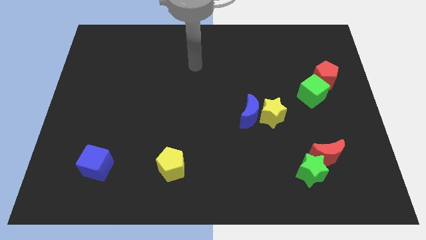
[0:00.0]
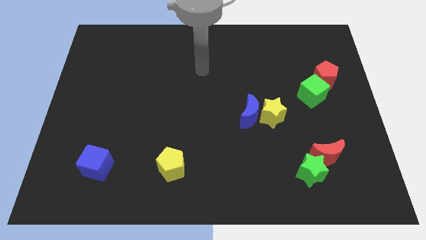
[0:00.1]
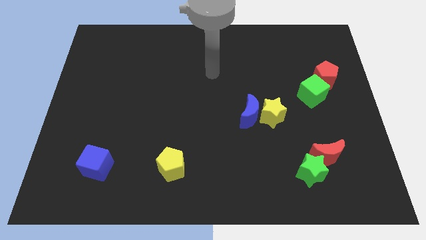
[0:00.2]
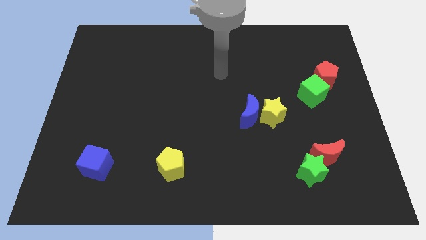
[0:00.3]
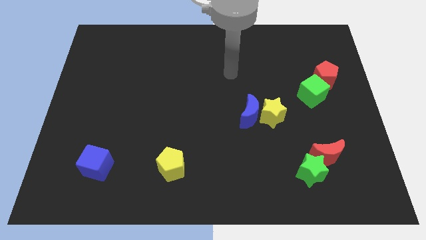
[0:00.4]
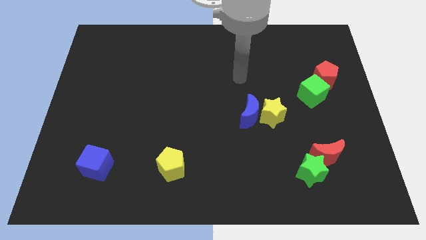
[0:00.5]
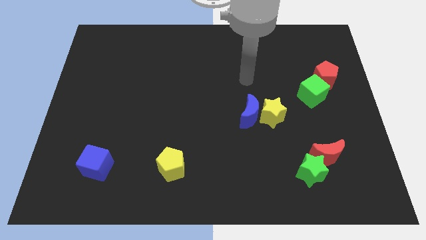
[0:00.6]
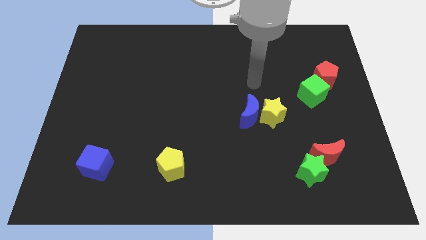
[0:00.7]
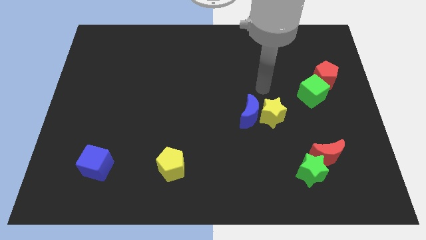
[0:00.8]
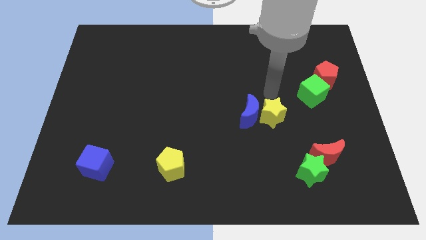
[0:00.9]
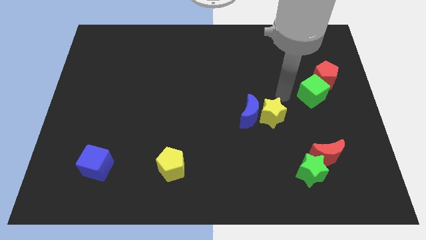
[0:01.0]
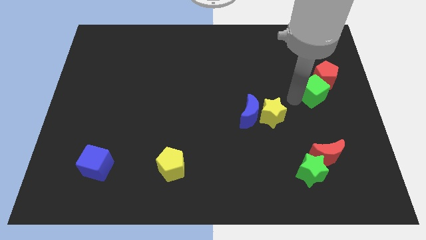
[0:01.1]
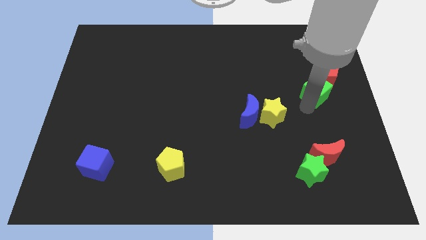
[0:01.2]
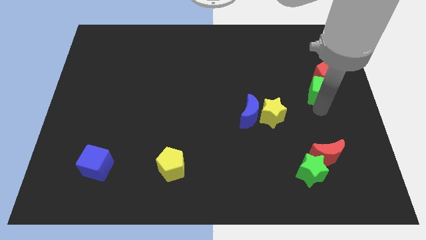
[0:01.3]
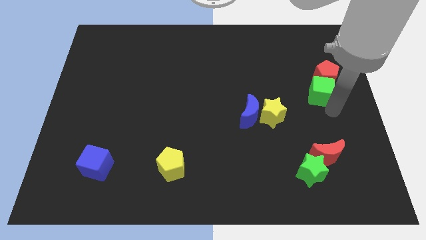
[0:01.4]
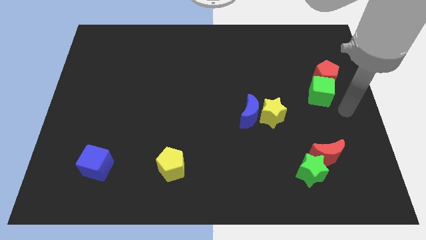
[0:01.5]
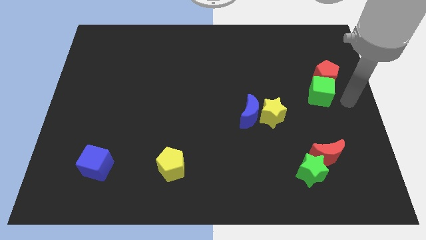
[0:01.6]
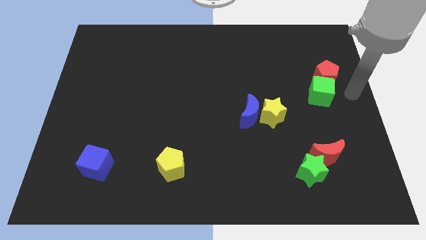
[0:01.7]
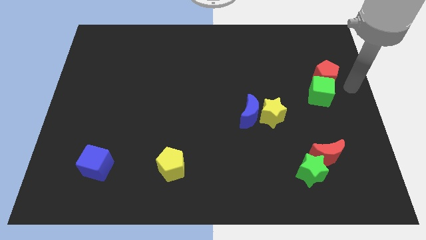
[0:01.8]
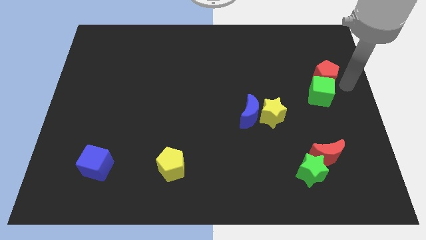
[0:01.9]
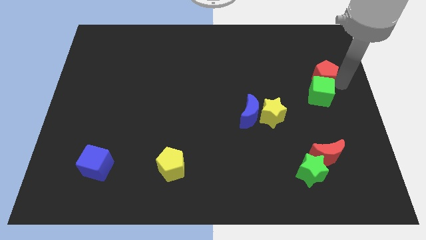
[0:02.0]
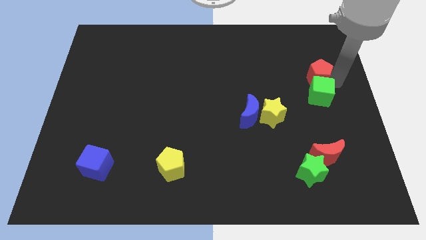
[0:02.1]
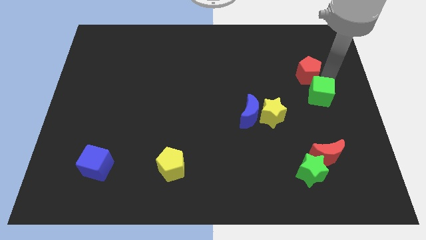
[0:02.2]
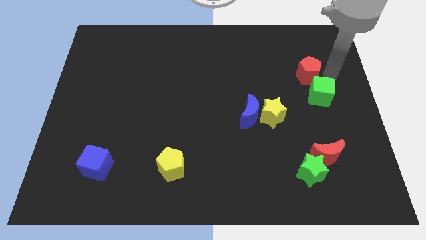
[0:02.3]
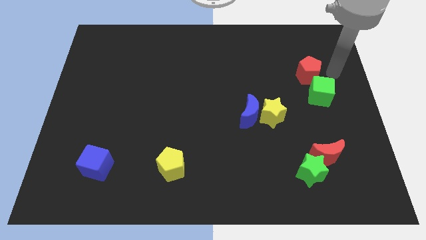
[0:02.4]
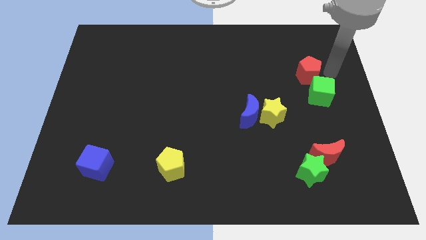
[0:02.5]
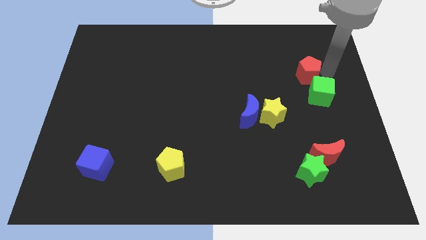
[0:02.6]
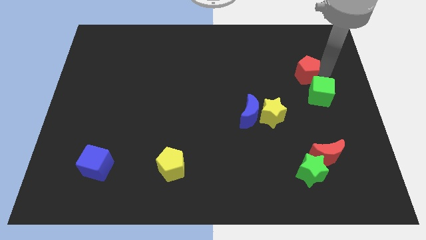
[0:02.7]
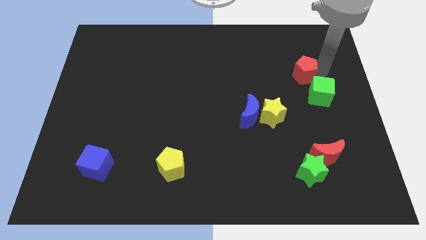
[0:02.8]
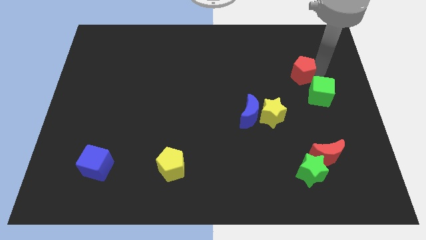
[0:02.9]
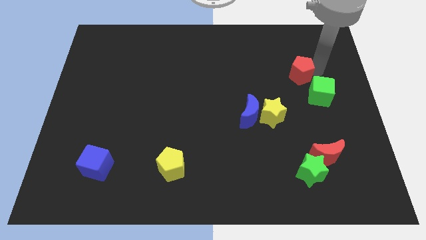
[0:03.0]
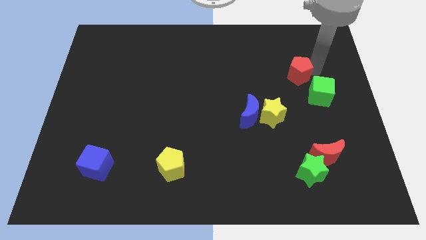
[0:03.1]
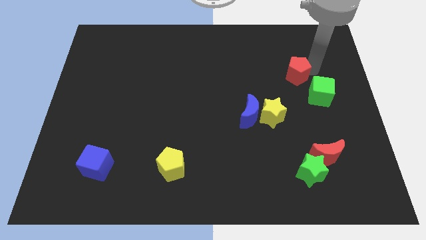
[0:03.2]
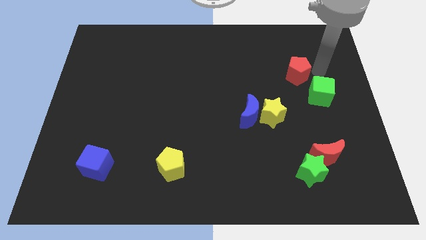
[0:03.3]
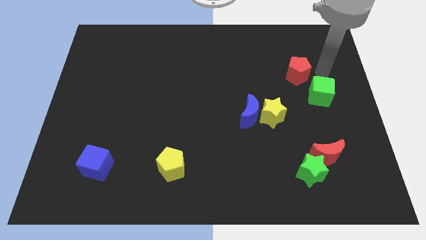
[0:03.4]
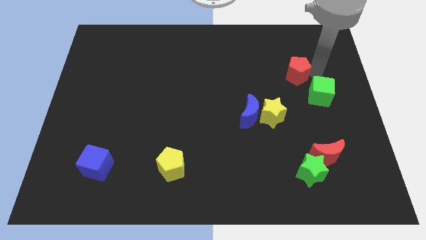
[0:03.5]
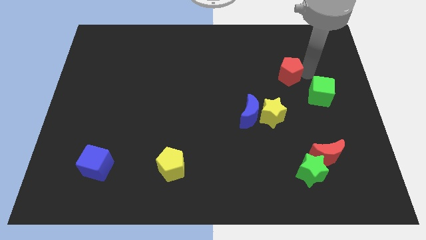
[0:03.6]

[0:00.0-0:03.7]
slightly slide the red pentagon to the left

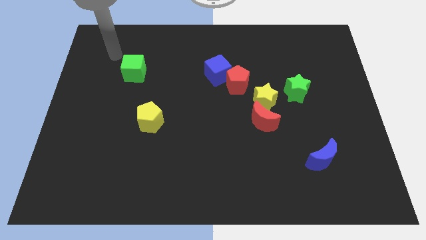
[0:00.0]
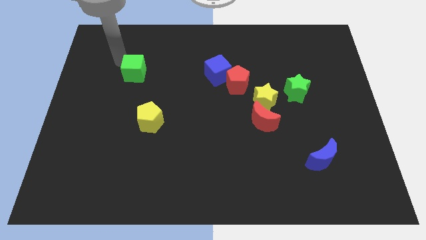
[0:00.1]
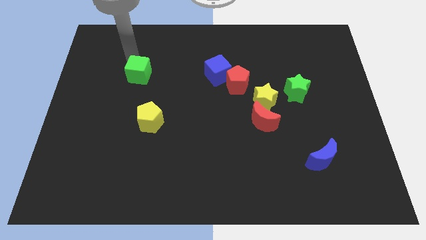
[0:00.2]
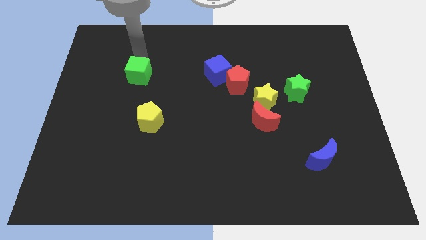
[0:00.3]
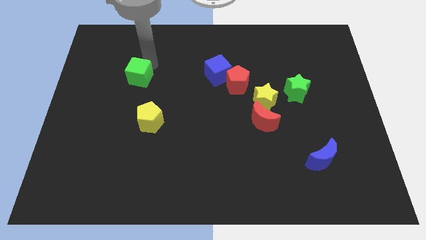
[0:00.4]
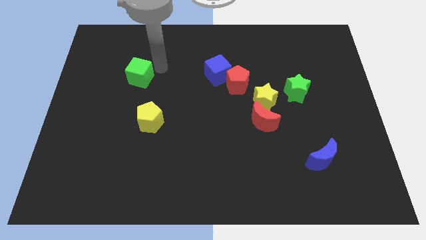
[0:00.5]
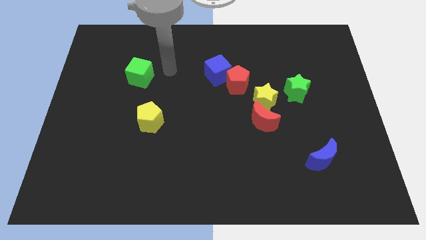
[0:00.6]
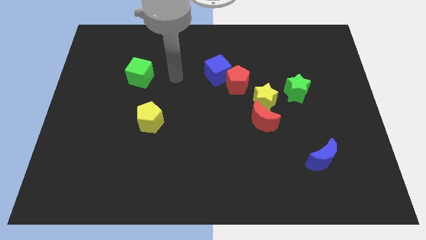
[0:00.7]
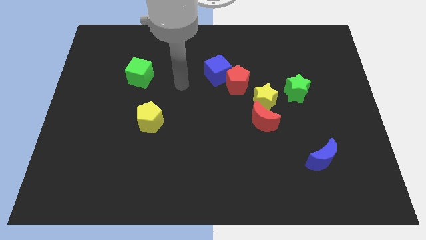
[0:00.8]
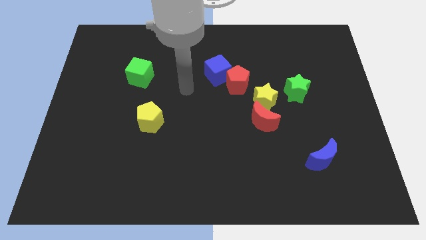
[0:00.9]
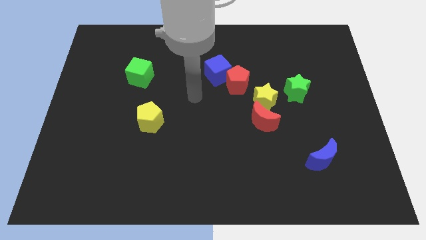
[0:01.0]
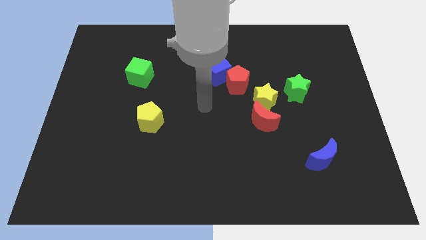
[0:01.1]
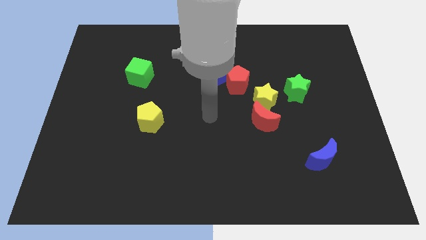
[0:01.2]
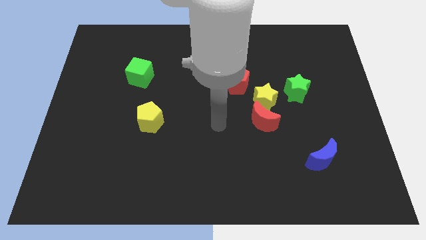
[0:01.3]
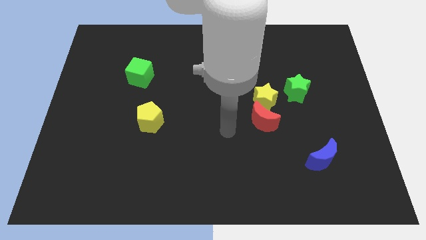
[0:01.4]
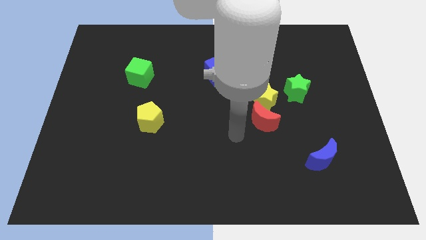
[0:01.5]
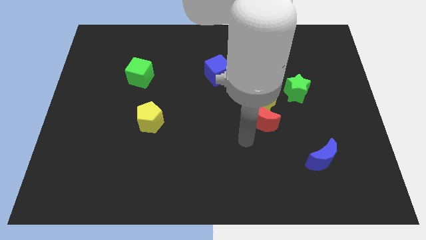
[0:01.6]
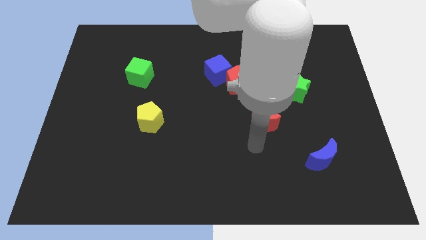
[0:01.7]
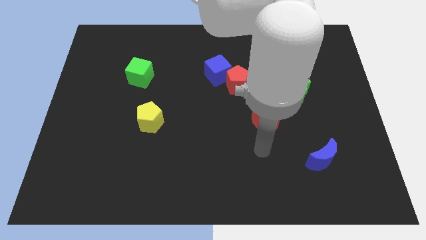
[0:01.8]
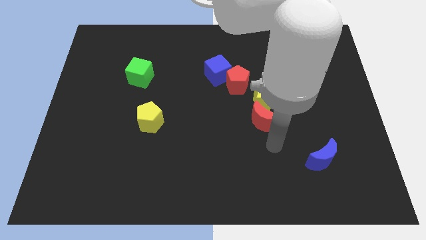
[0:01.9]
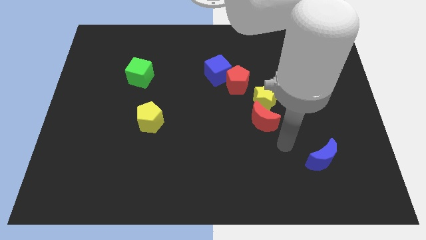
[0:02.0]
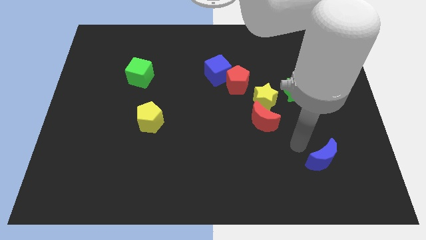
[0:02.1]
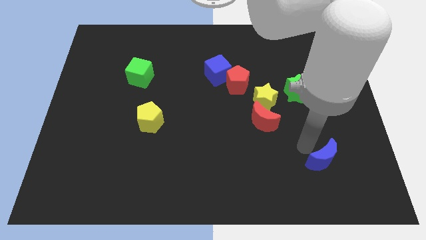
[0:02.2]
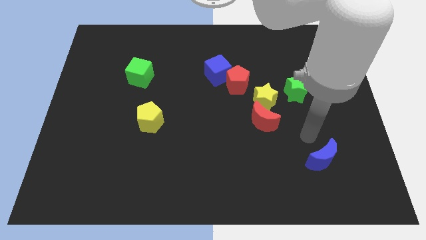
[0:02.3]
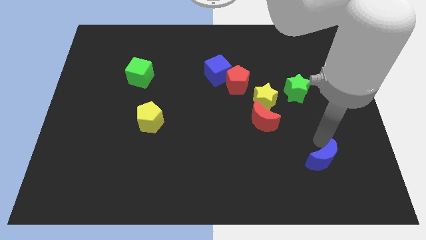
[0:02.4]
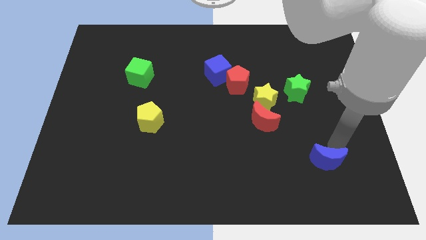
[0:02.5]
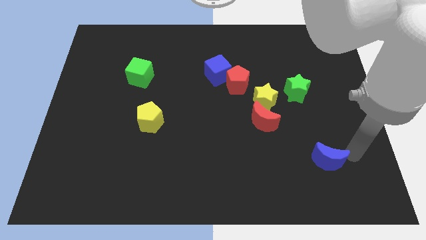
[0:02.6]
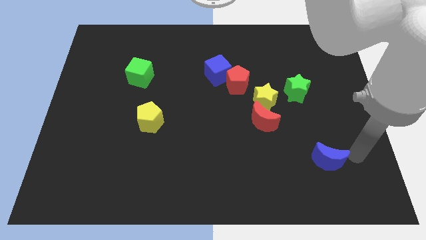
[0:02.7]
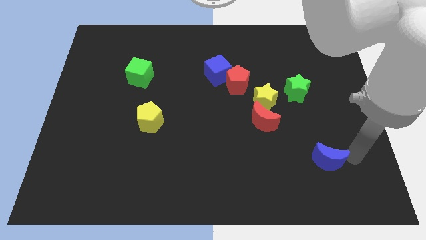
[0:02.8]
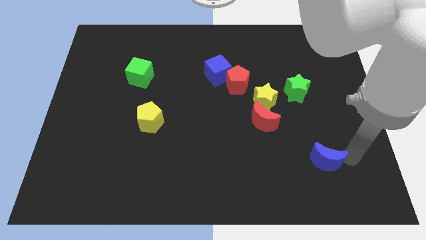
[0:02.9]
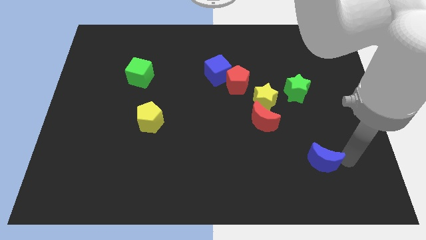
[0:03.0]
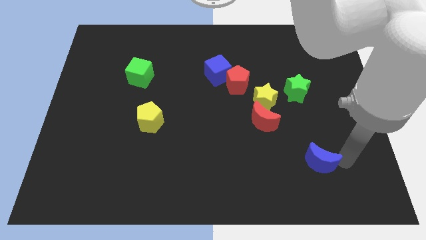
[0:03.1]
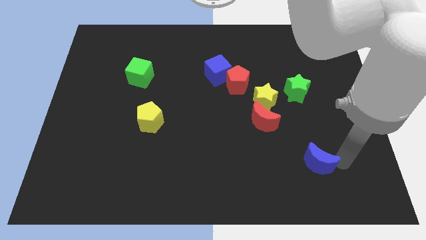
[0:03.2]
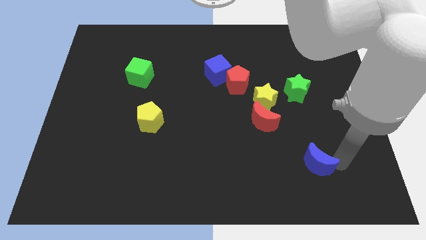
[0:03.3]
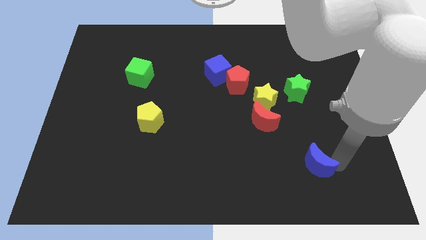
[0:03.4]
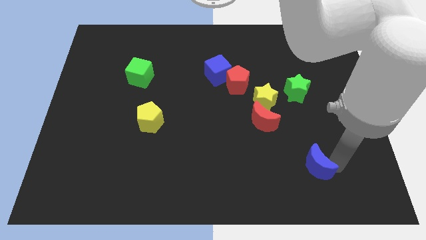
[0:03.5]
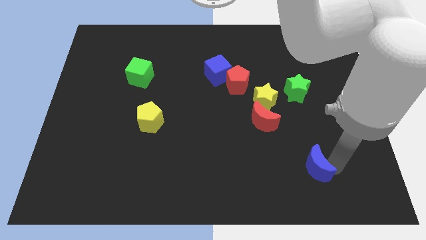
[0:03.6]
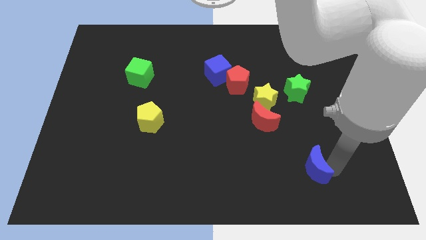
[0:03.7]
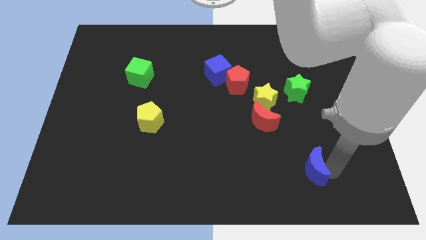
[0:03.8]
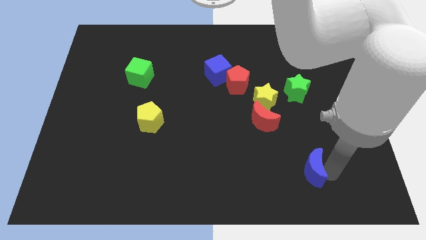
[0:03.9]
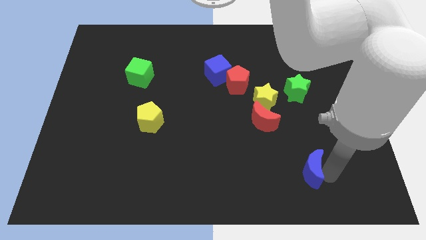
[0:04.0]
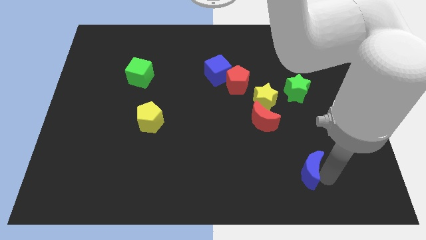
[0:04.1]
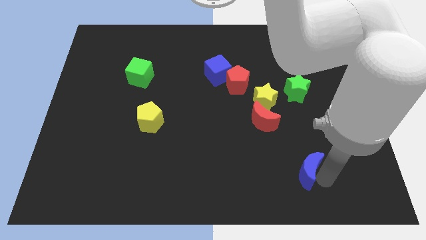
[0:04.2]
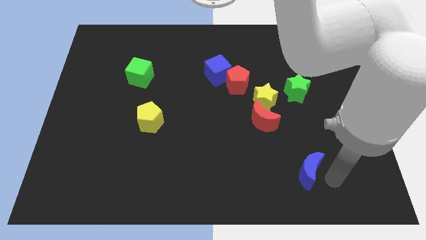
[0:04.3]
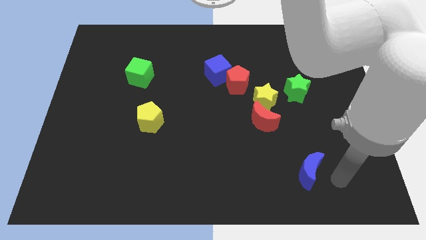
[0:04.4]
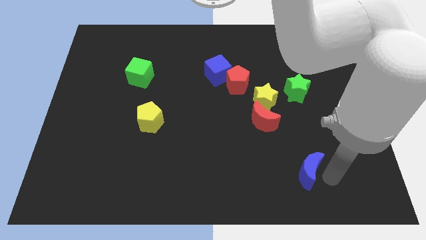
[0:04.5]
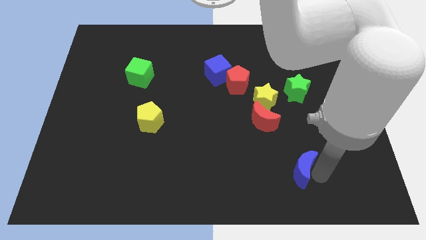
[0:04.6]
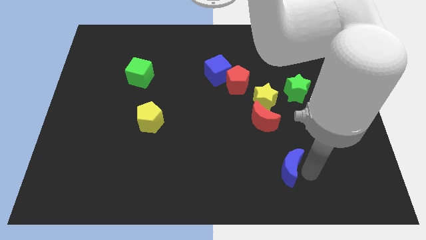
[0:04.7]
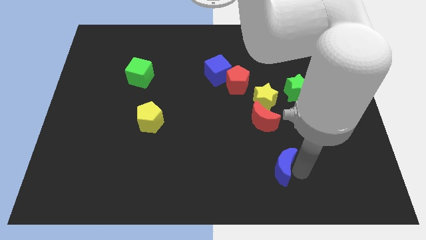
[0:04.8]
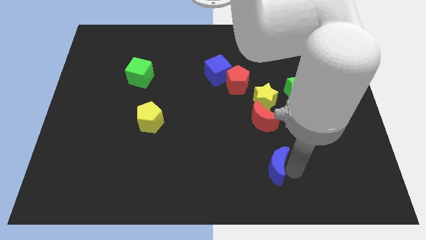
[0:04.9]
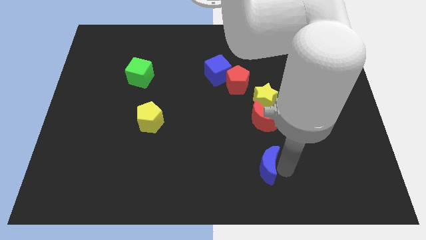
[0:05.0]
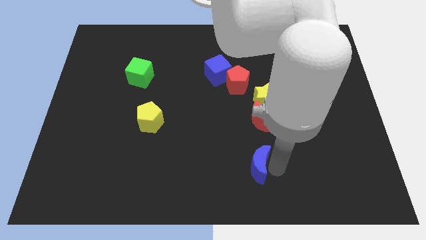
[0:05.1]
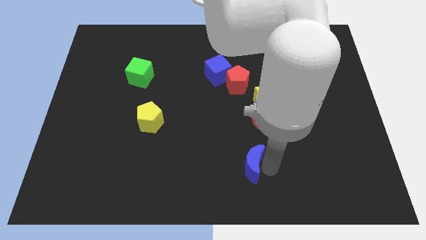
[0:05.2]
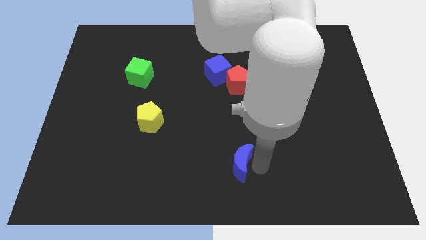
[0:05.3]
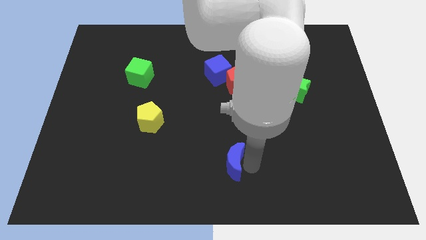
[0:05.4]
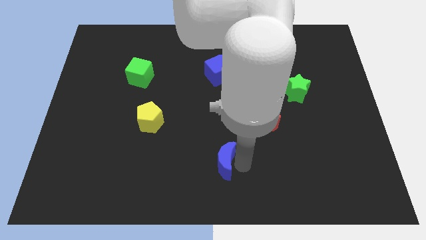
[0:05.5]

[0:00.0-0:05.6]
push the blue moon left
